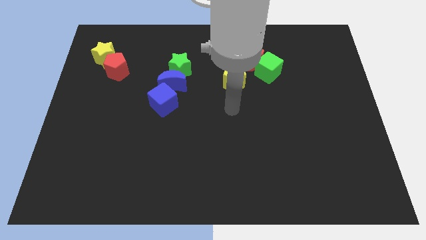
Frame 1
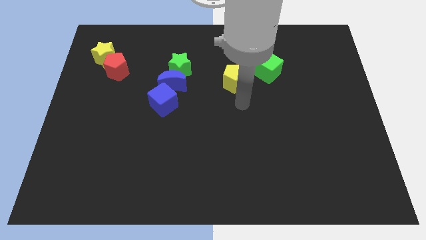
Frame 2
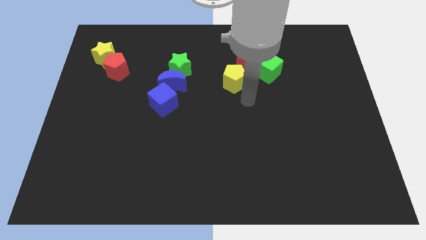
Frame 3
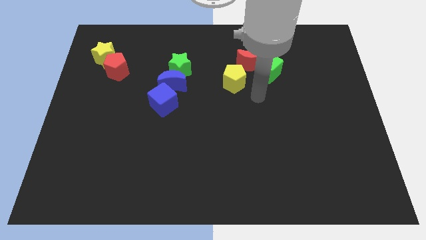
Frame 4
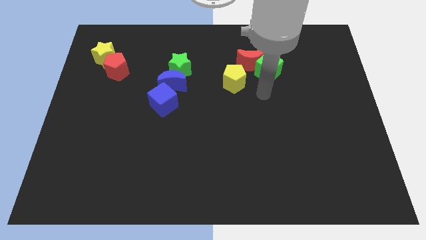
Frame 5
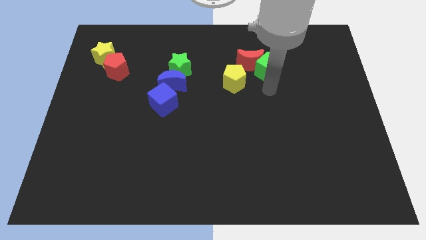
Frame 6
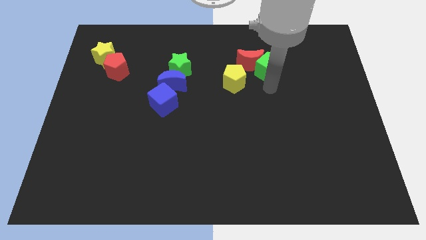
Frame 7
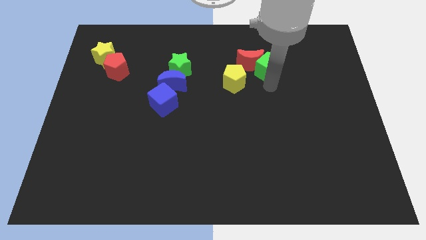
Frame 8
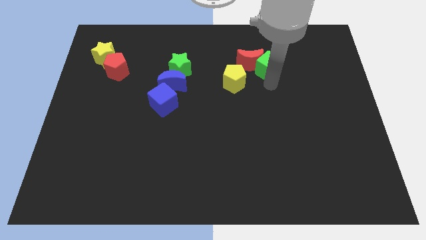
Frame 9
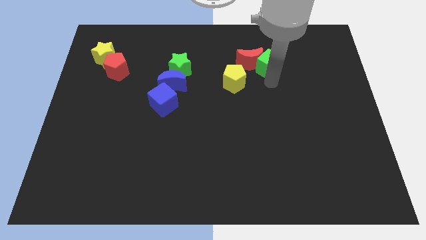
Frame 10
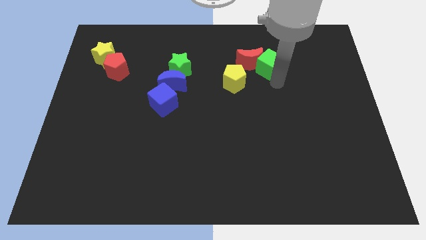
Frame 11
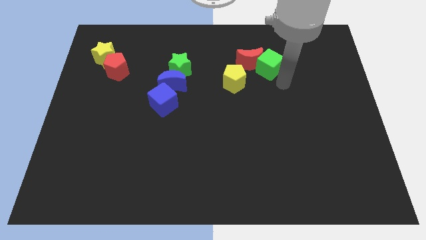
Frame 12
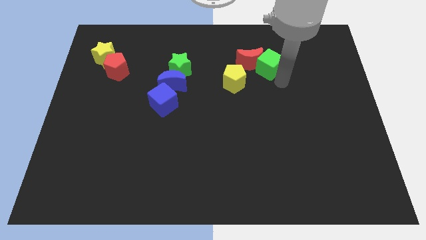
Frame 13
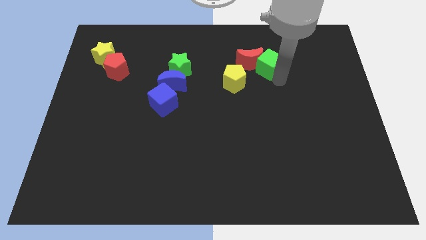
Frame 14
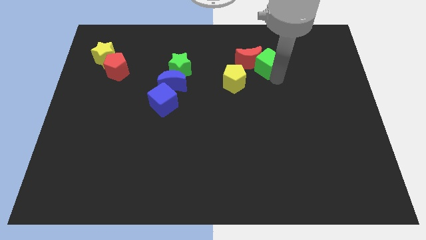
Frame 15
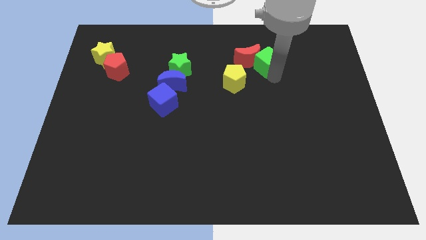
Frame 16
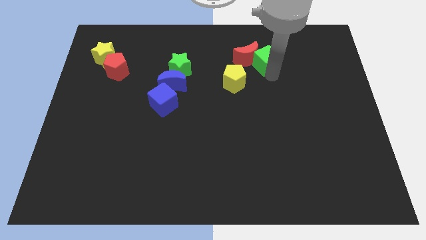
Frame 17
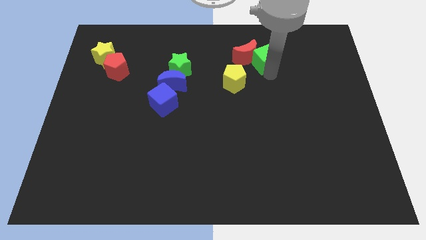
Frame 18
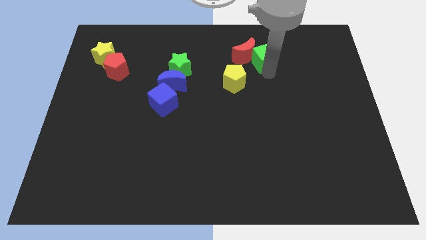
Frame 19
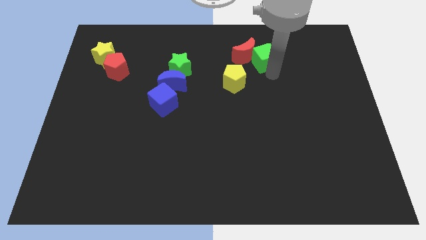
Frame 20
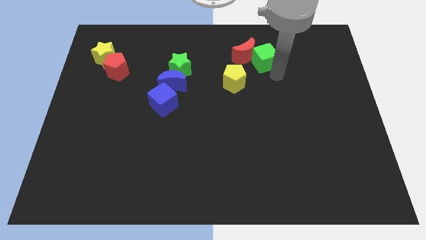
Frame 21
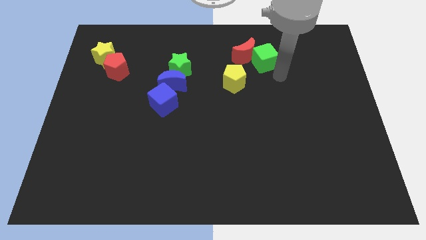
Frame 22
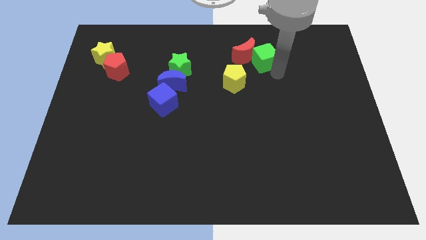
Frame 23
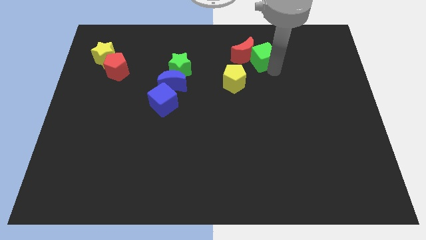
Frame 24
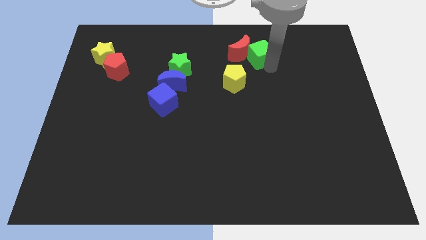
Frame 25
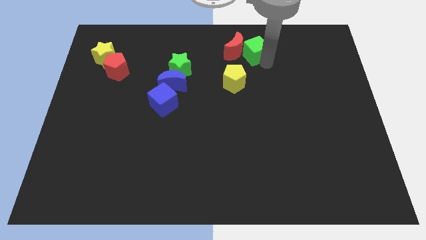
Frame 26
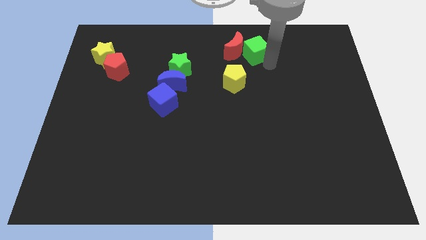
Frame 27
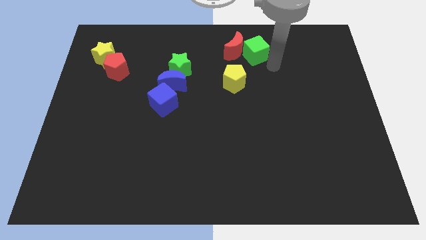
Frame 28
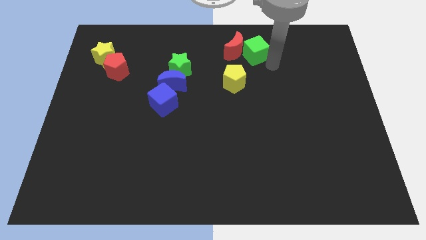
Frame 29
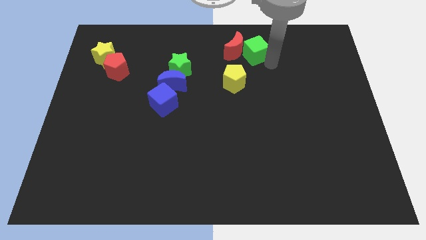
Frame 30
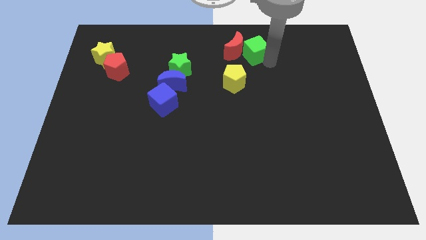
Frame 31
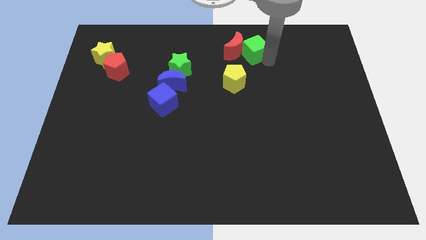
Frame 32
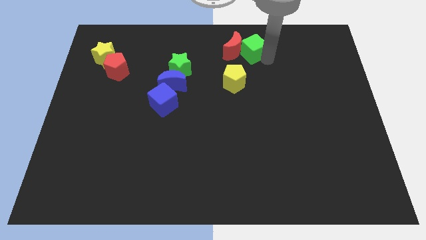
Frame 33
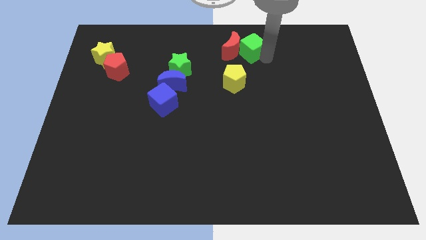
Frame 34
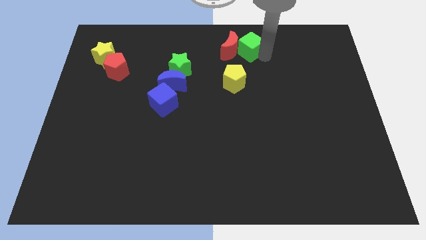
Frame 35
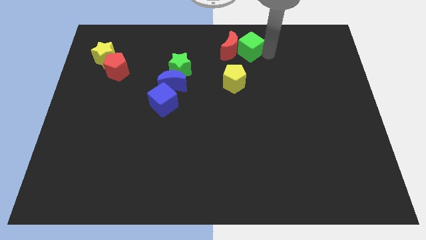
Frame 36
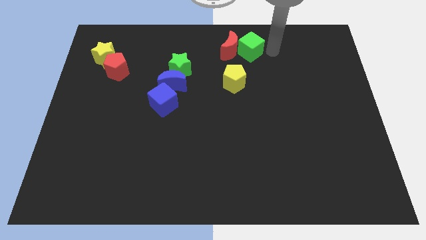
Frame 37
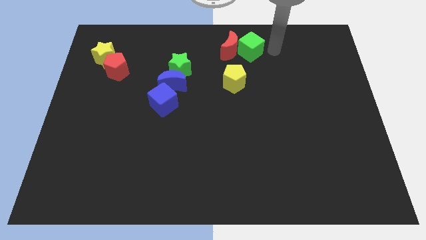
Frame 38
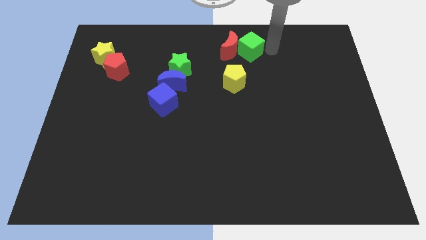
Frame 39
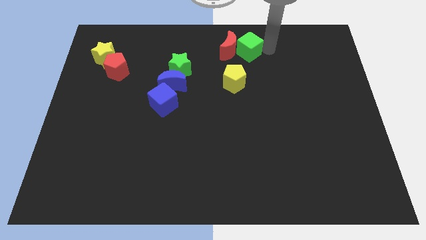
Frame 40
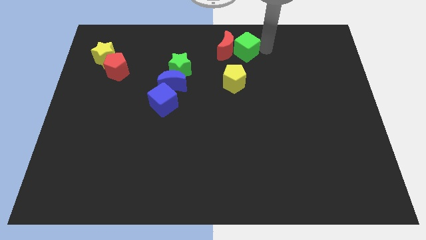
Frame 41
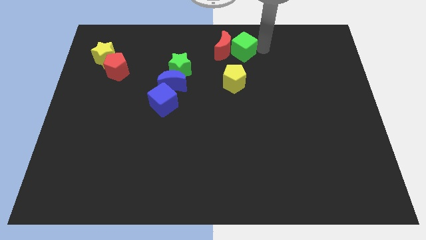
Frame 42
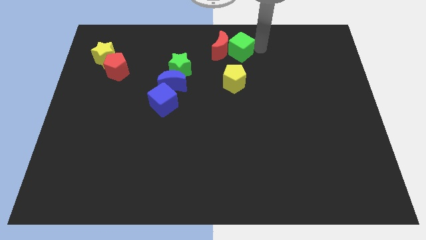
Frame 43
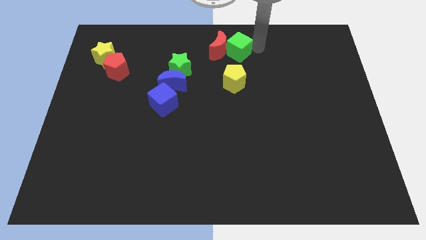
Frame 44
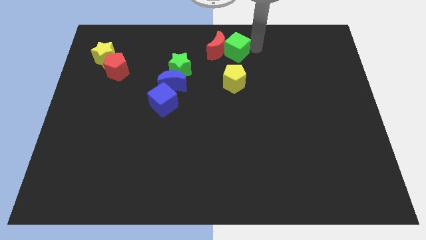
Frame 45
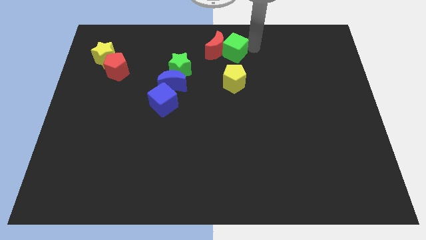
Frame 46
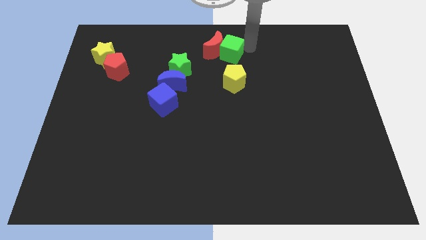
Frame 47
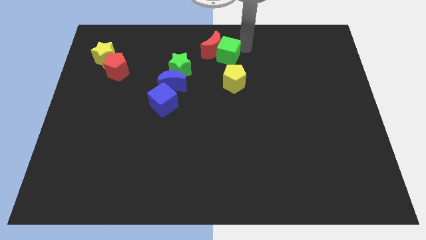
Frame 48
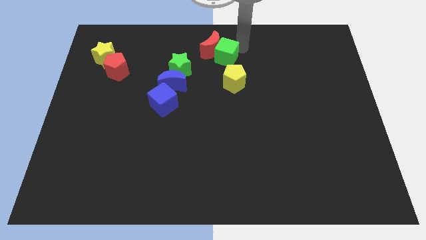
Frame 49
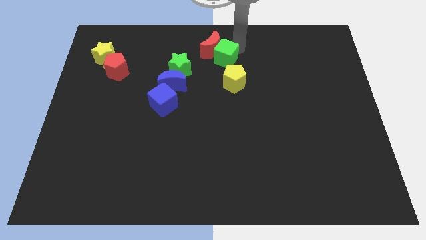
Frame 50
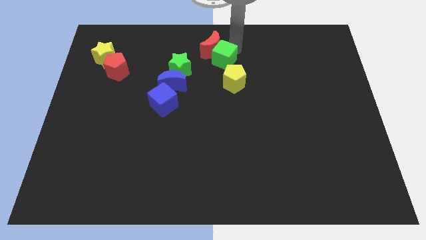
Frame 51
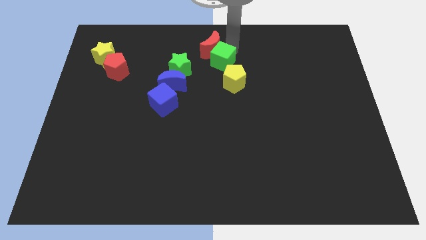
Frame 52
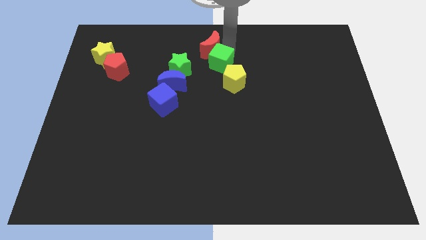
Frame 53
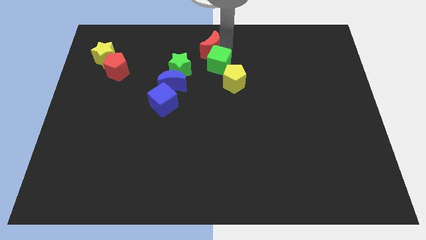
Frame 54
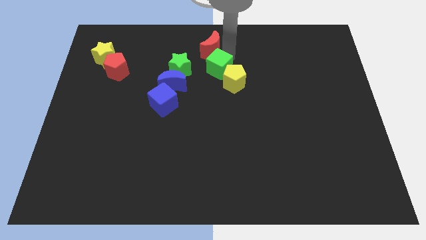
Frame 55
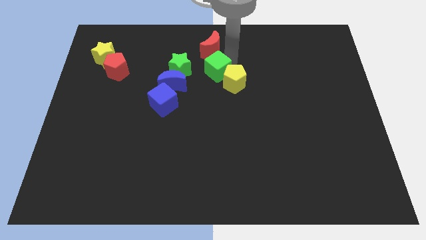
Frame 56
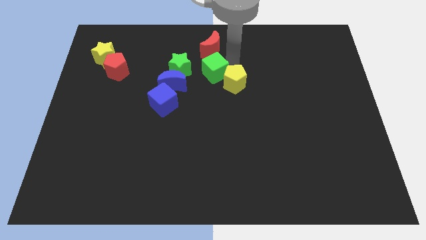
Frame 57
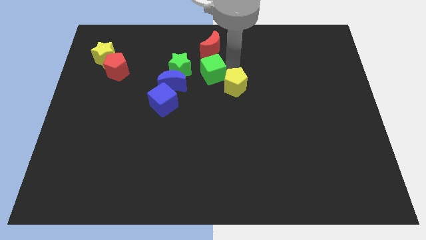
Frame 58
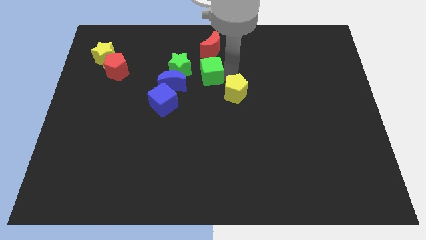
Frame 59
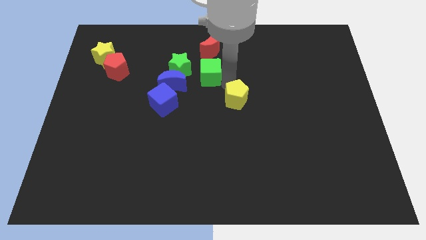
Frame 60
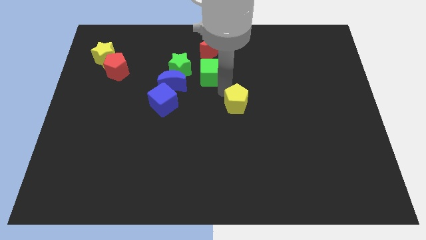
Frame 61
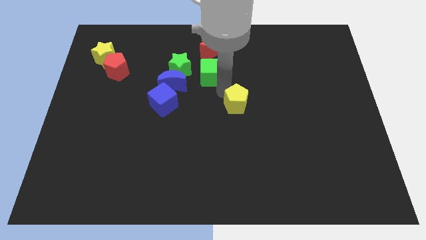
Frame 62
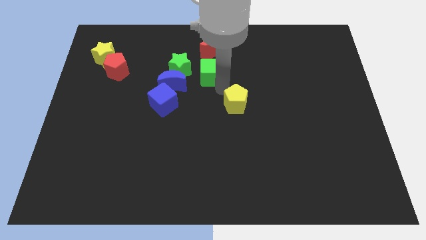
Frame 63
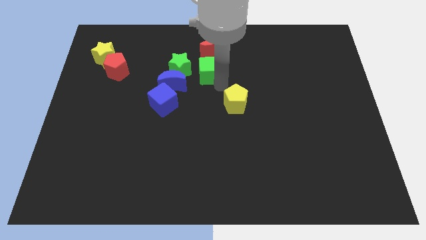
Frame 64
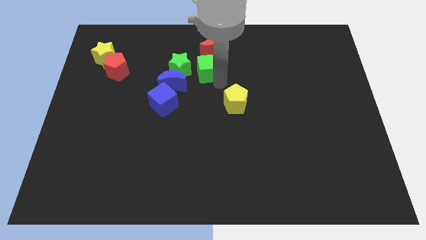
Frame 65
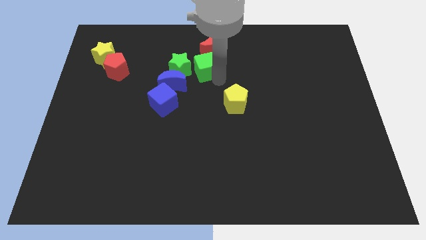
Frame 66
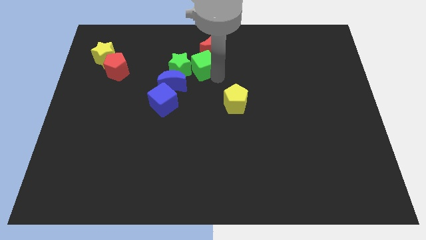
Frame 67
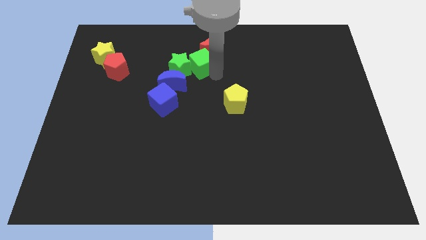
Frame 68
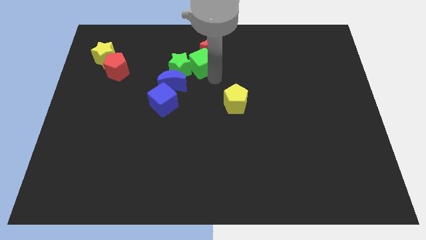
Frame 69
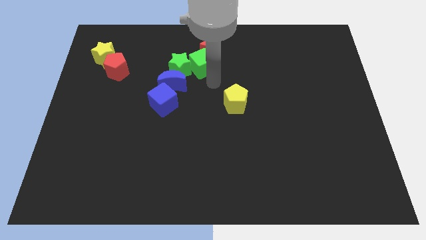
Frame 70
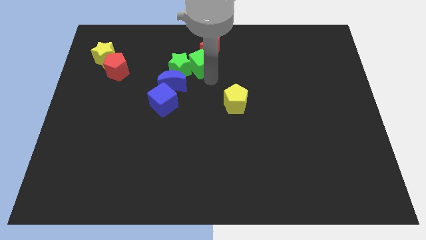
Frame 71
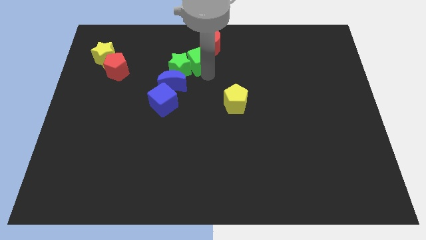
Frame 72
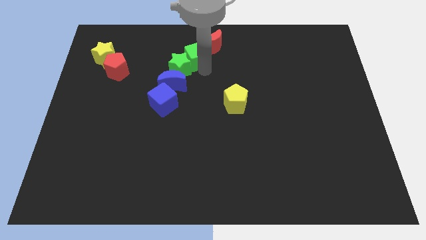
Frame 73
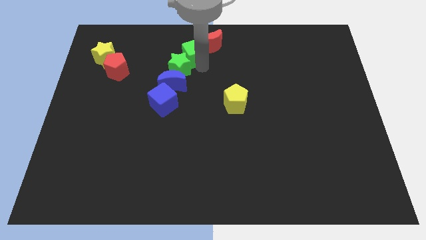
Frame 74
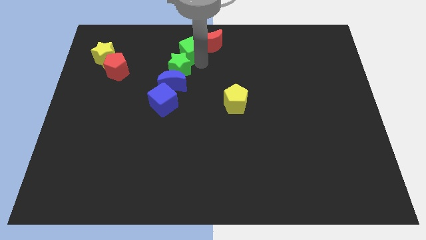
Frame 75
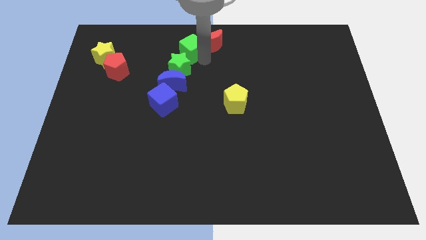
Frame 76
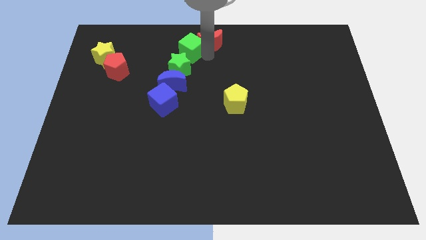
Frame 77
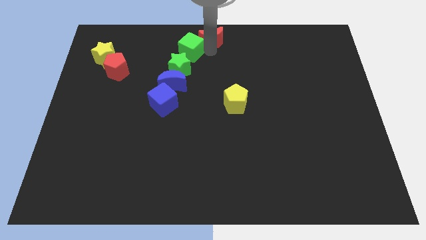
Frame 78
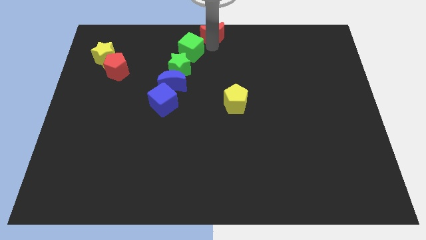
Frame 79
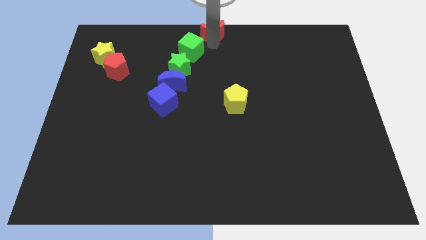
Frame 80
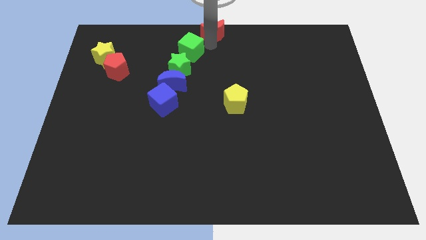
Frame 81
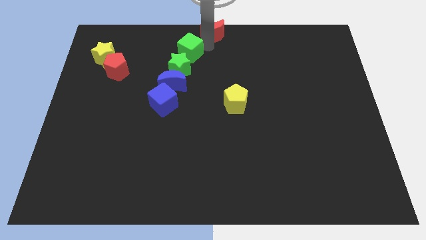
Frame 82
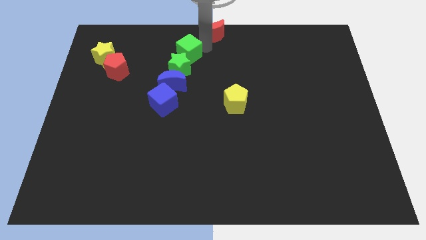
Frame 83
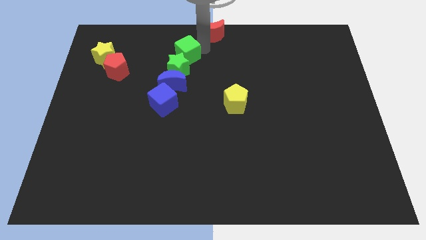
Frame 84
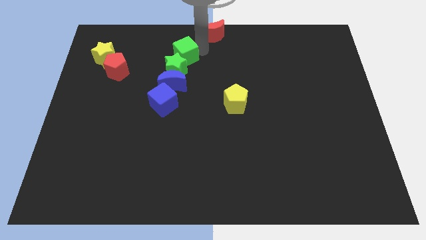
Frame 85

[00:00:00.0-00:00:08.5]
move the green cube left
